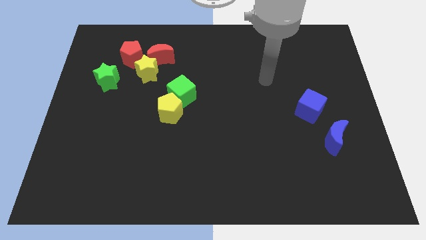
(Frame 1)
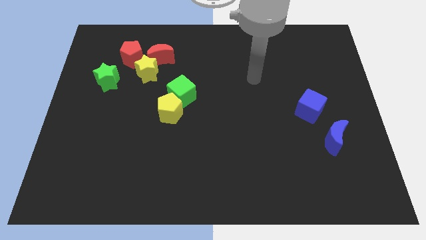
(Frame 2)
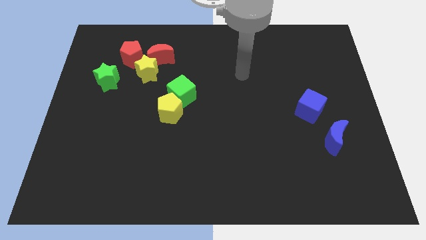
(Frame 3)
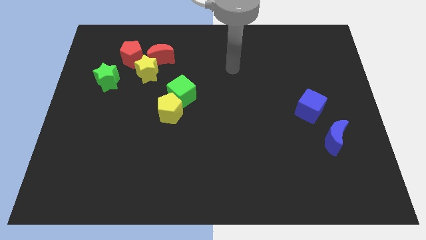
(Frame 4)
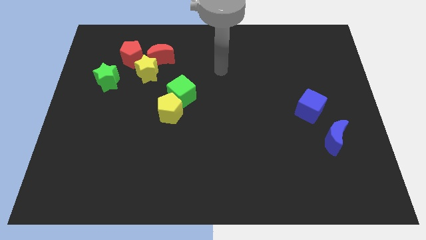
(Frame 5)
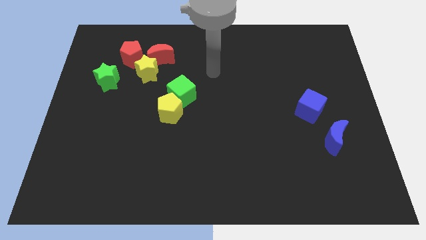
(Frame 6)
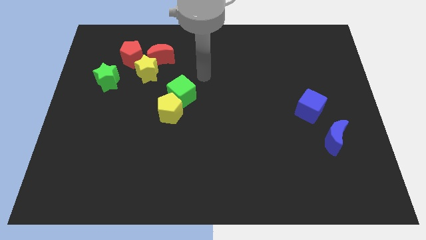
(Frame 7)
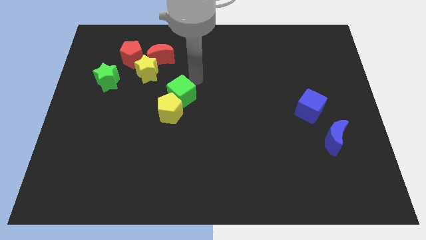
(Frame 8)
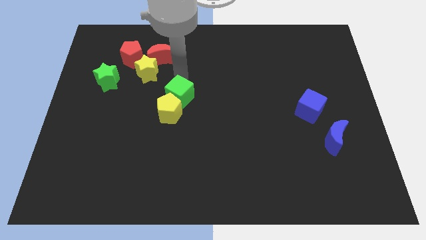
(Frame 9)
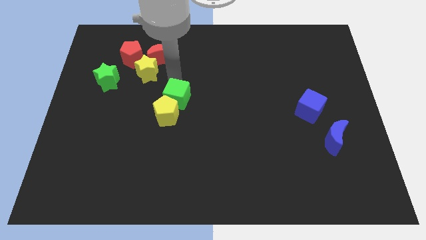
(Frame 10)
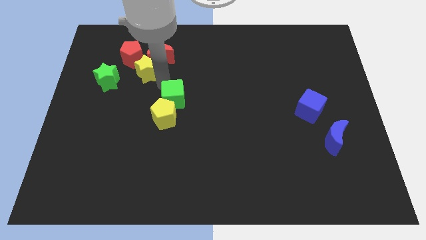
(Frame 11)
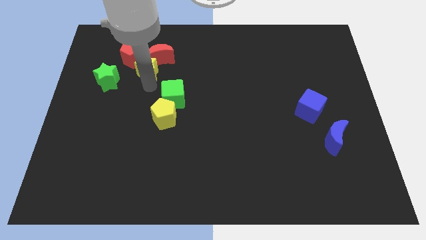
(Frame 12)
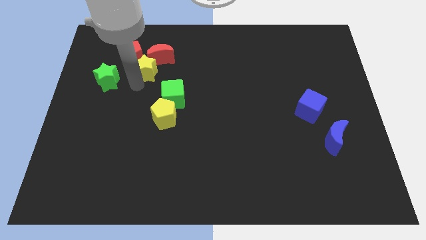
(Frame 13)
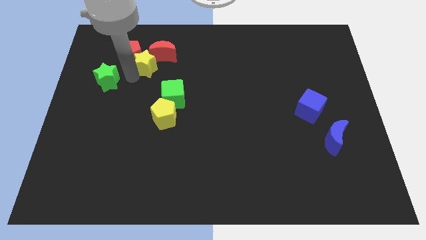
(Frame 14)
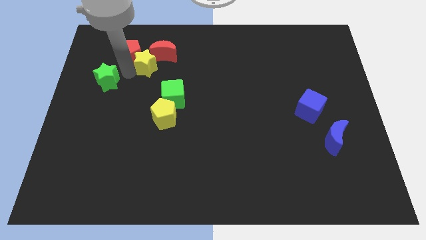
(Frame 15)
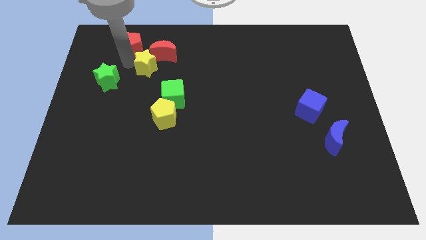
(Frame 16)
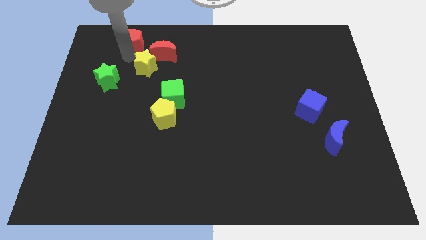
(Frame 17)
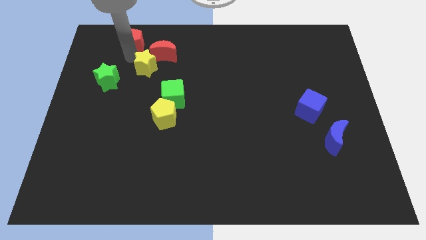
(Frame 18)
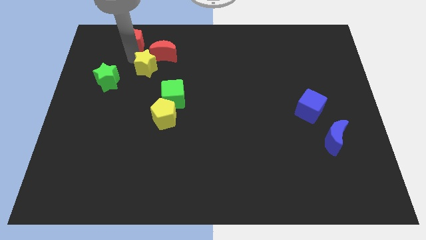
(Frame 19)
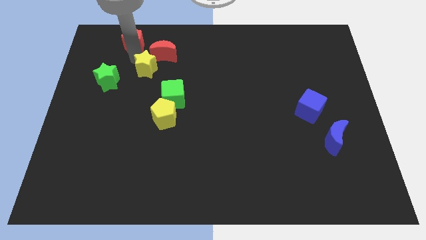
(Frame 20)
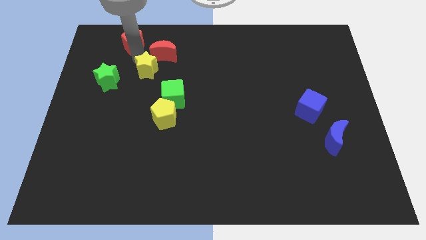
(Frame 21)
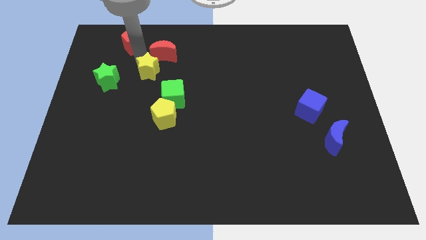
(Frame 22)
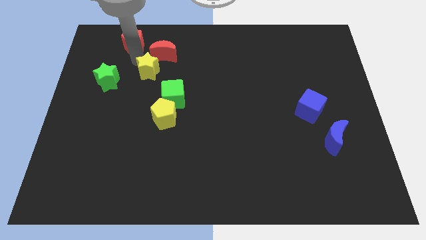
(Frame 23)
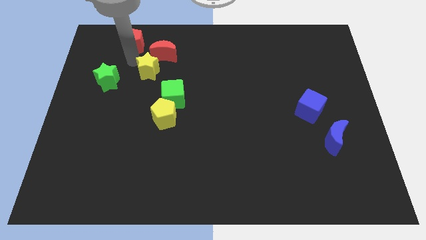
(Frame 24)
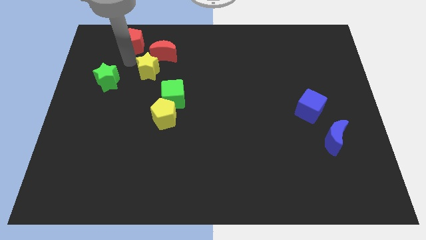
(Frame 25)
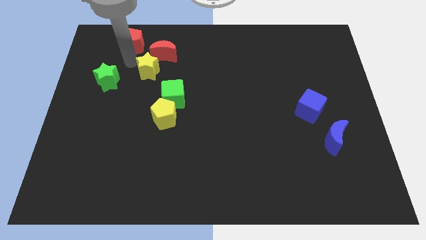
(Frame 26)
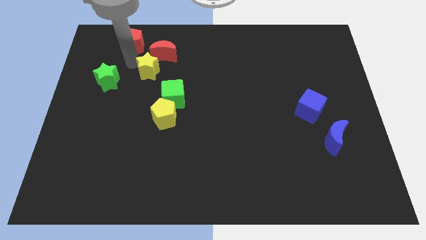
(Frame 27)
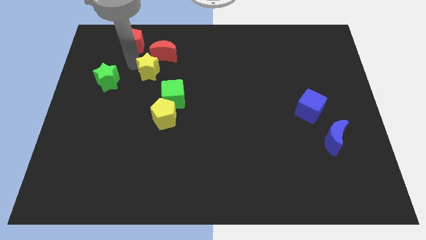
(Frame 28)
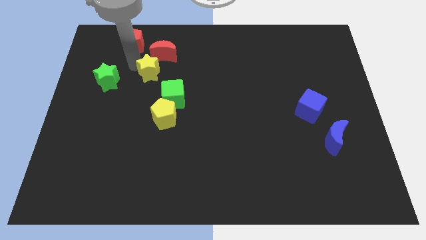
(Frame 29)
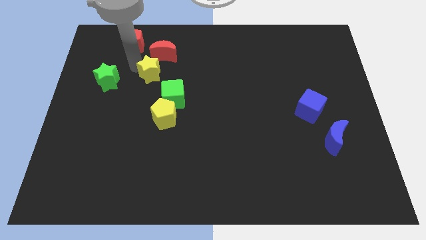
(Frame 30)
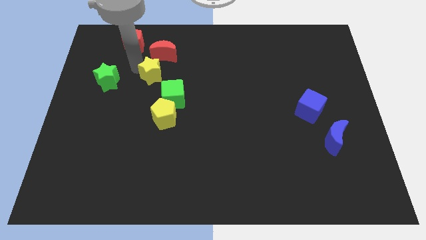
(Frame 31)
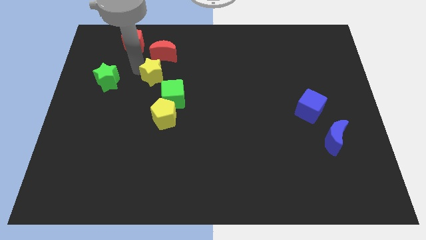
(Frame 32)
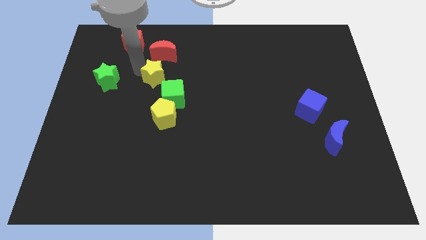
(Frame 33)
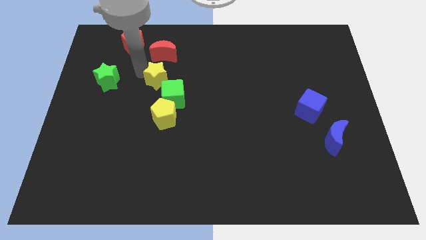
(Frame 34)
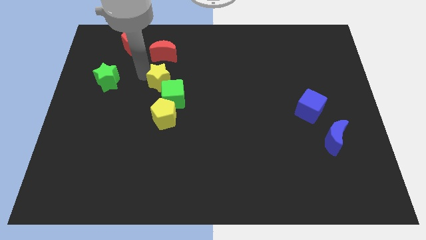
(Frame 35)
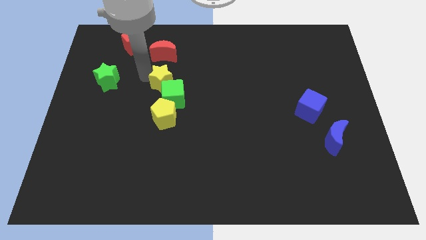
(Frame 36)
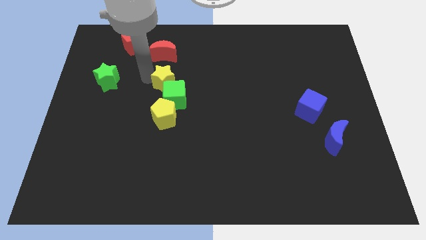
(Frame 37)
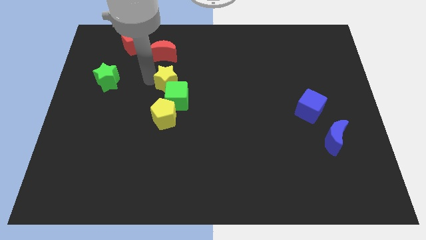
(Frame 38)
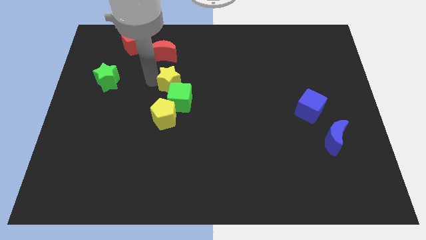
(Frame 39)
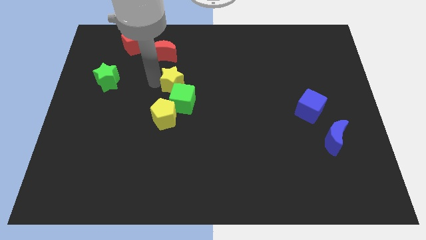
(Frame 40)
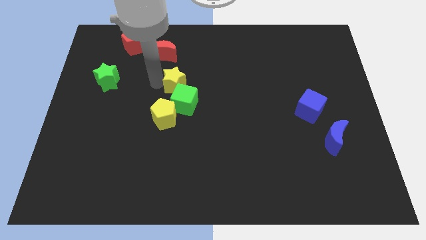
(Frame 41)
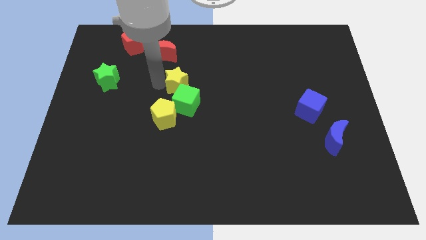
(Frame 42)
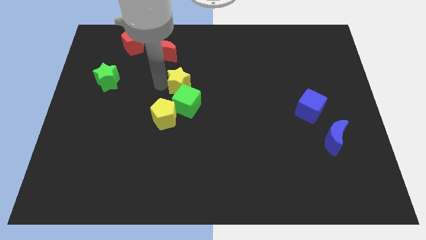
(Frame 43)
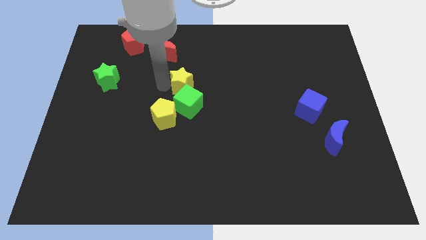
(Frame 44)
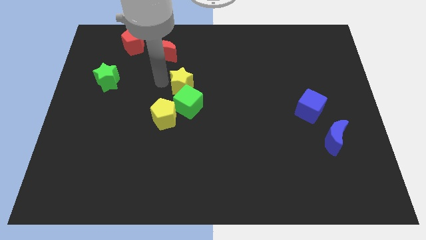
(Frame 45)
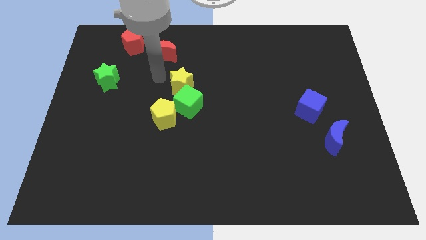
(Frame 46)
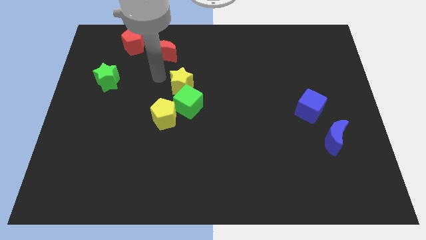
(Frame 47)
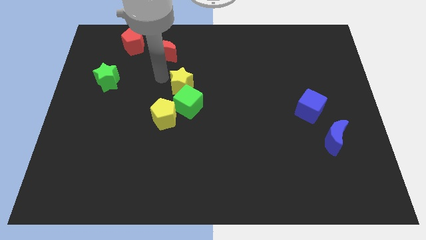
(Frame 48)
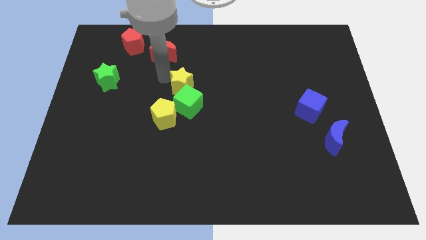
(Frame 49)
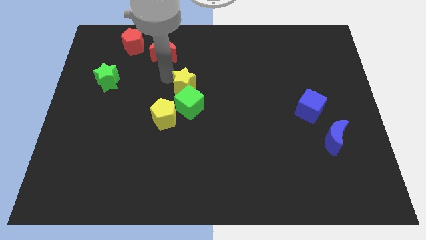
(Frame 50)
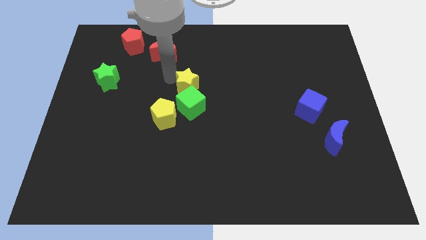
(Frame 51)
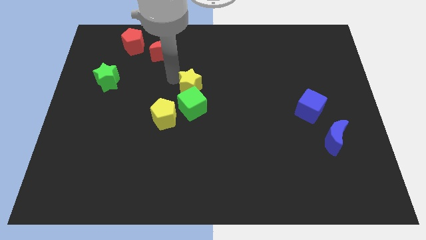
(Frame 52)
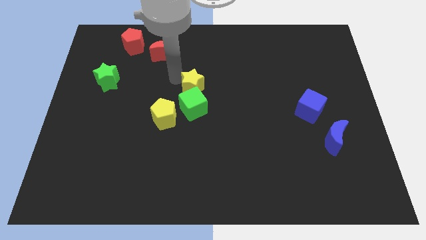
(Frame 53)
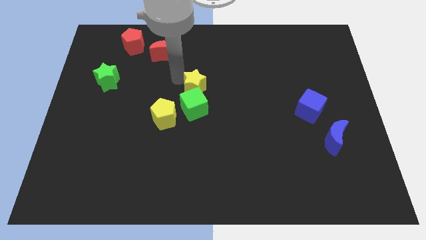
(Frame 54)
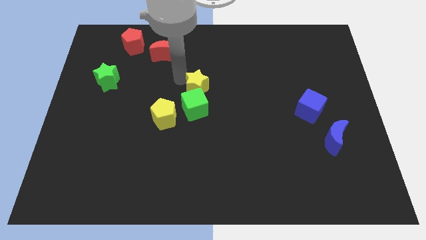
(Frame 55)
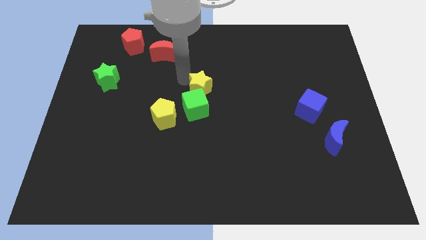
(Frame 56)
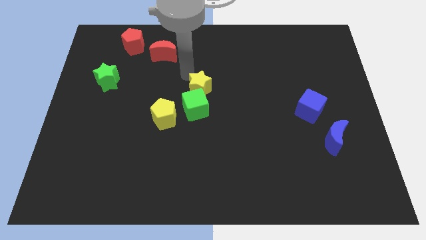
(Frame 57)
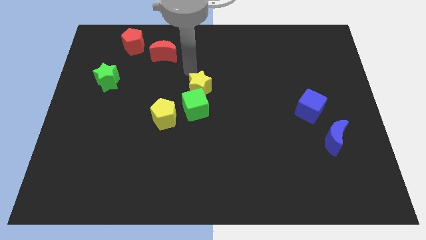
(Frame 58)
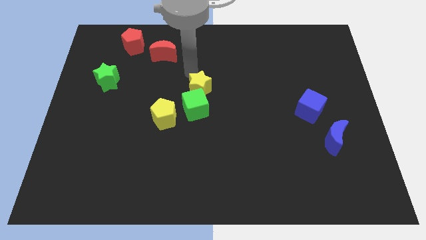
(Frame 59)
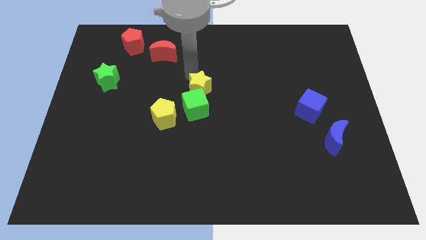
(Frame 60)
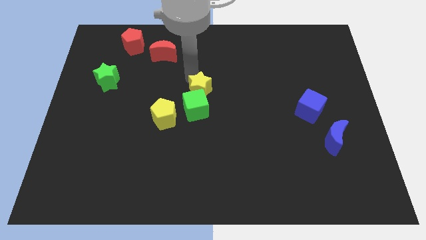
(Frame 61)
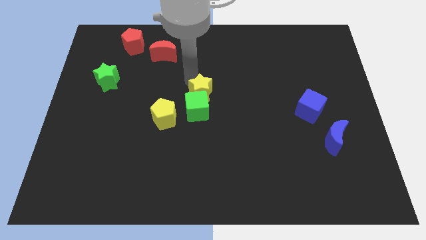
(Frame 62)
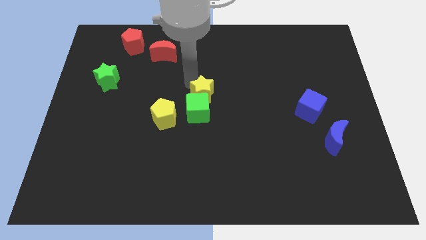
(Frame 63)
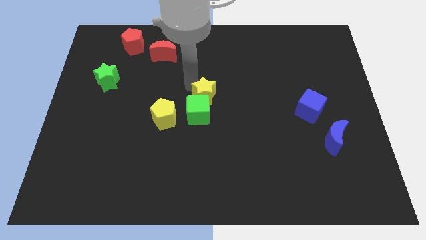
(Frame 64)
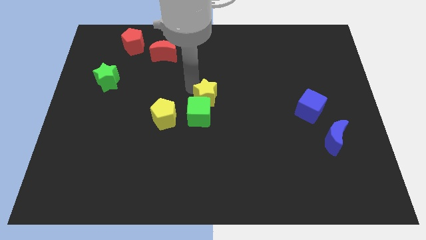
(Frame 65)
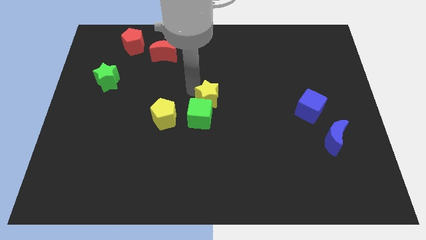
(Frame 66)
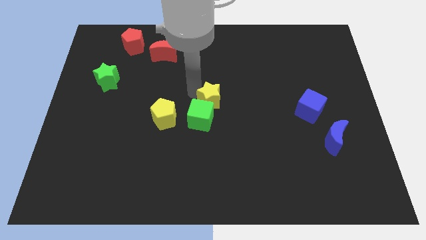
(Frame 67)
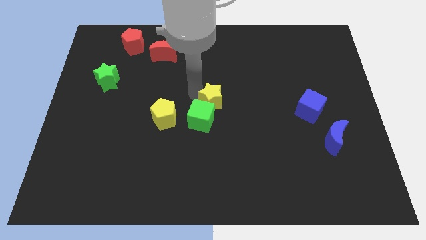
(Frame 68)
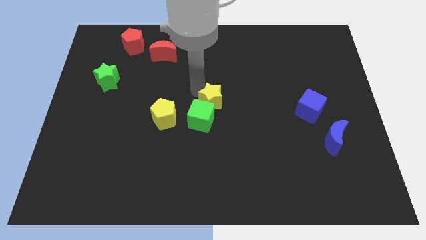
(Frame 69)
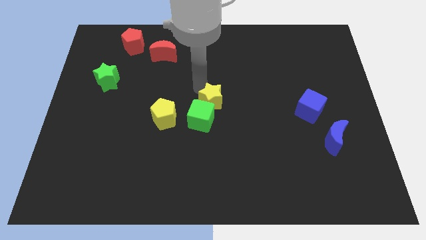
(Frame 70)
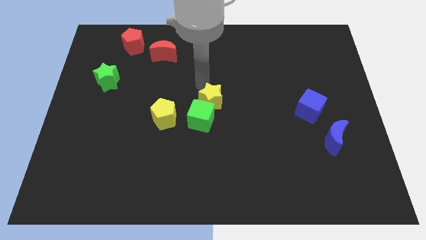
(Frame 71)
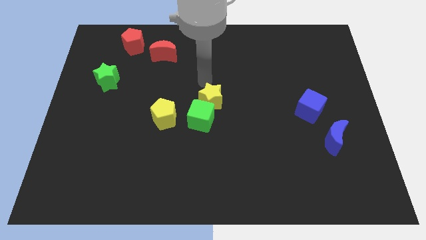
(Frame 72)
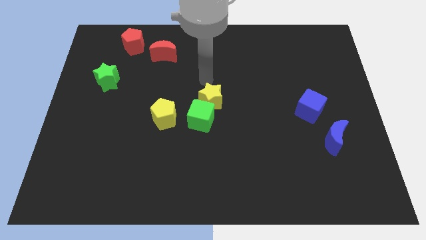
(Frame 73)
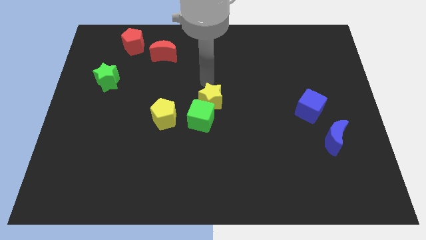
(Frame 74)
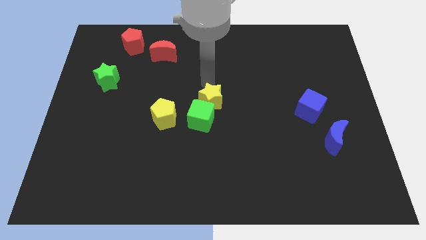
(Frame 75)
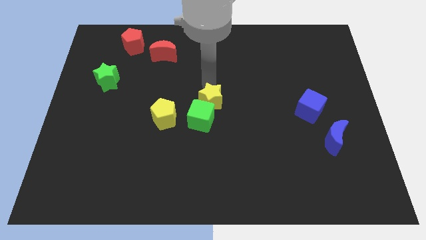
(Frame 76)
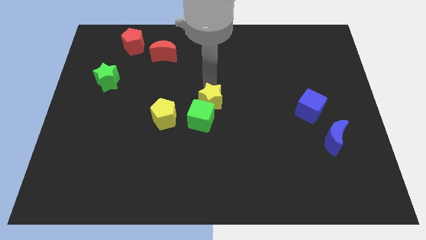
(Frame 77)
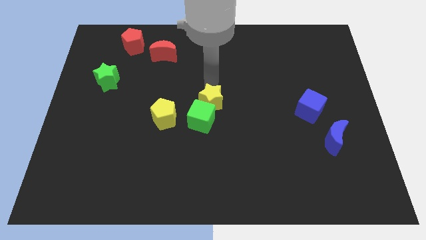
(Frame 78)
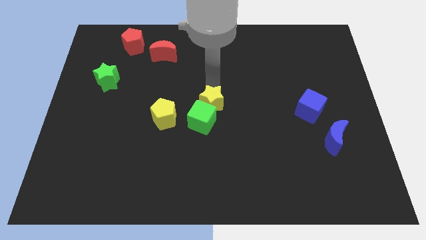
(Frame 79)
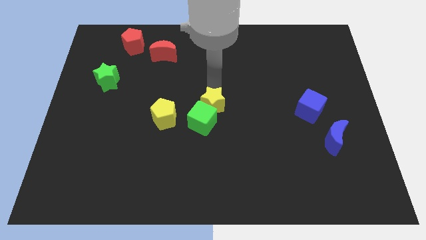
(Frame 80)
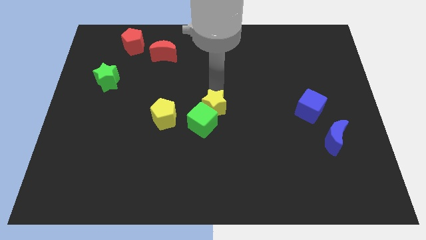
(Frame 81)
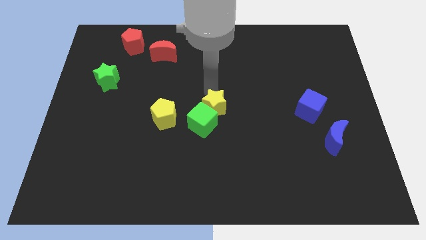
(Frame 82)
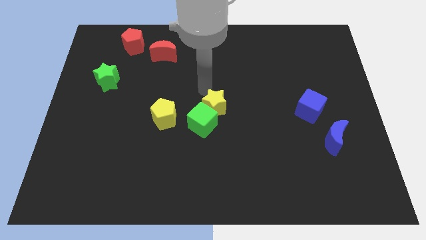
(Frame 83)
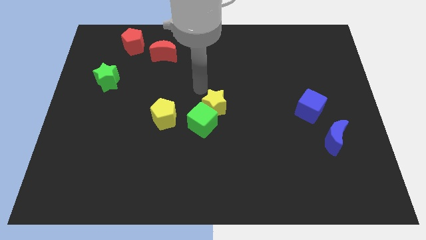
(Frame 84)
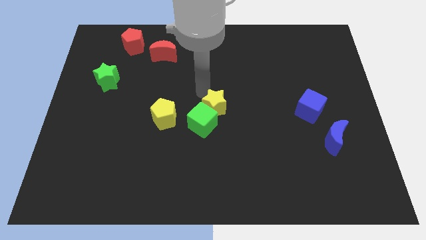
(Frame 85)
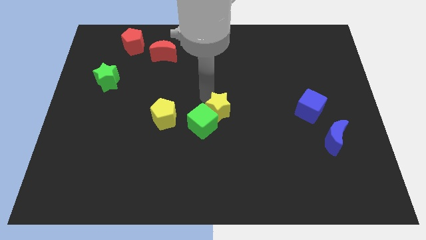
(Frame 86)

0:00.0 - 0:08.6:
push the yellow star downwards and right diagonally
